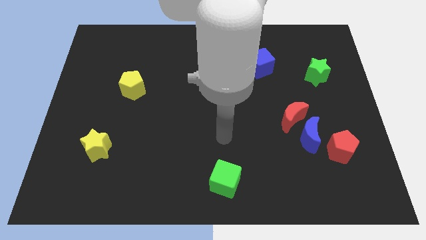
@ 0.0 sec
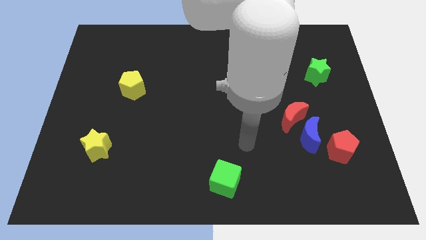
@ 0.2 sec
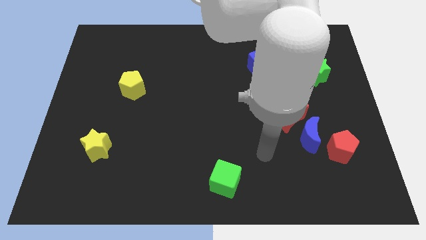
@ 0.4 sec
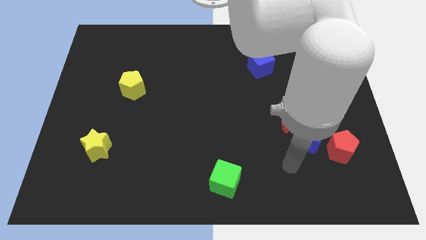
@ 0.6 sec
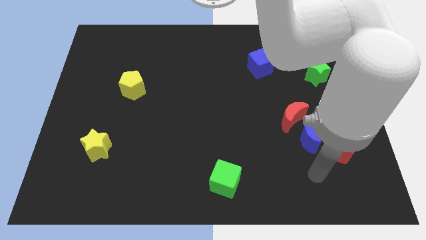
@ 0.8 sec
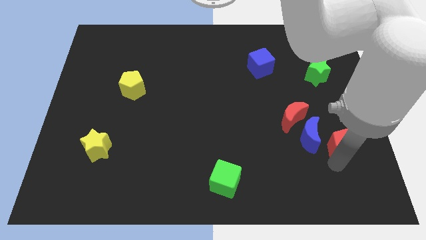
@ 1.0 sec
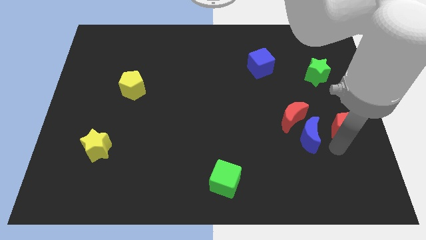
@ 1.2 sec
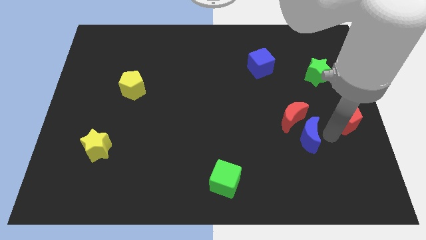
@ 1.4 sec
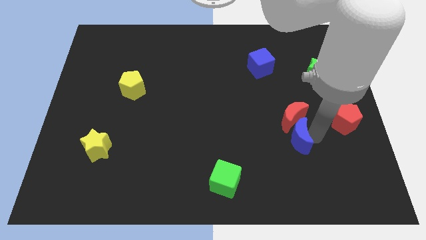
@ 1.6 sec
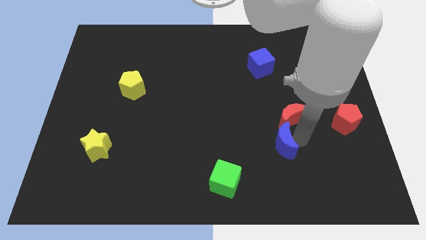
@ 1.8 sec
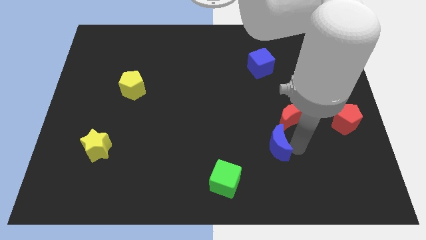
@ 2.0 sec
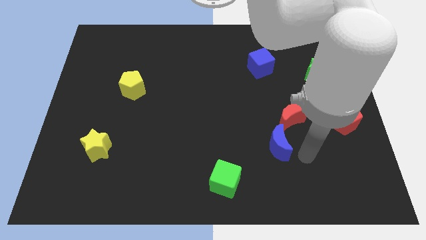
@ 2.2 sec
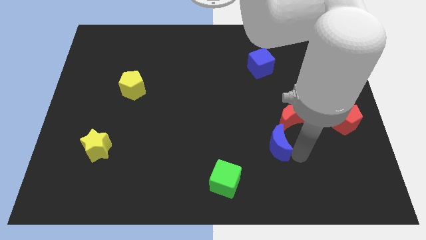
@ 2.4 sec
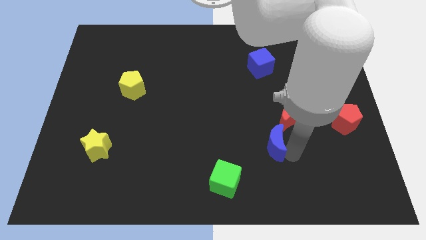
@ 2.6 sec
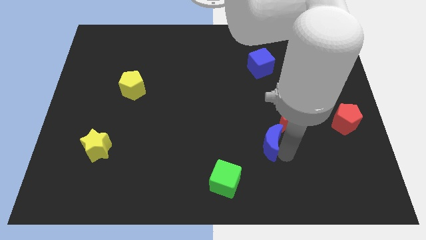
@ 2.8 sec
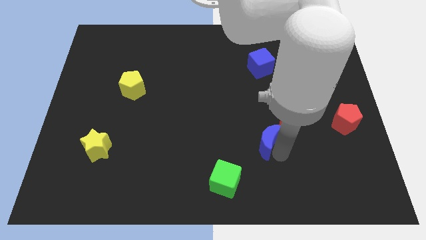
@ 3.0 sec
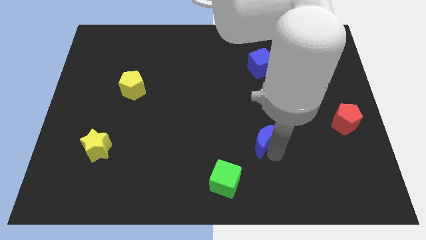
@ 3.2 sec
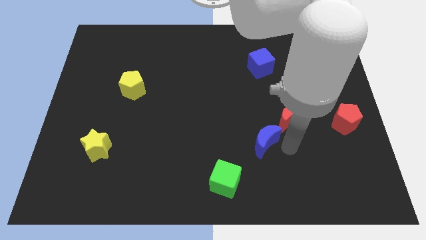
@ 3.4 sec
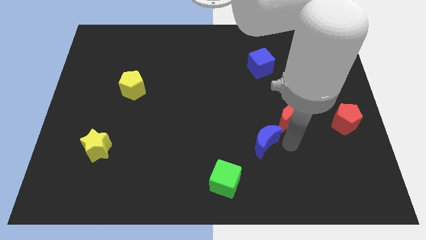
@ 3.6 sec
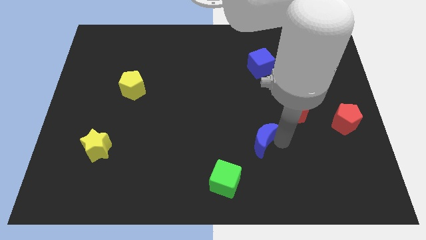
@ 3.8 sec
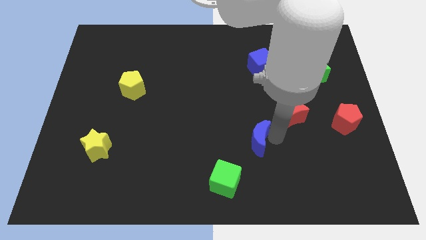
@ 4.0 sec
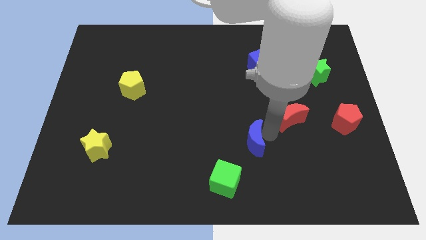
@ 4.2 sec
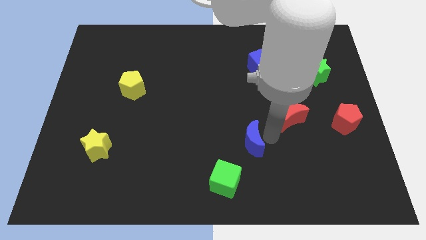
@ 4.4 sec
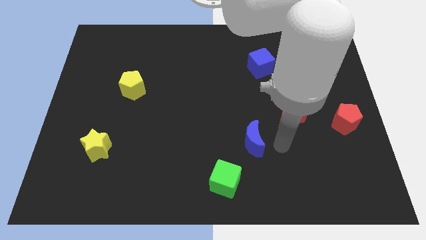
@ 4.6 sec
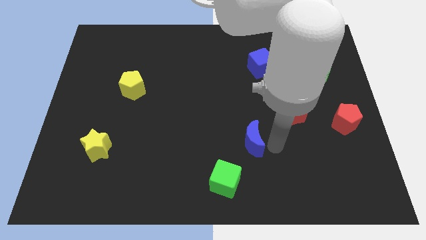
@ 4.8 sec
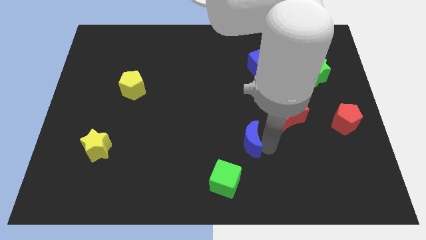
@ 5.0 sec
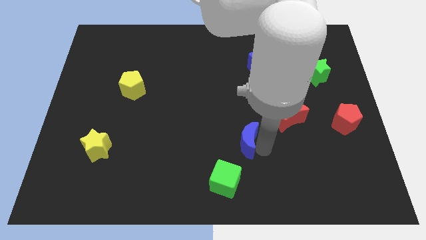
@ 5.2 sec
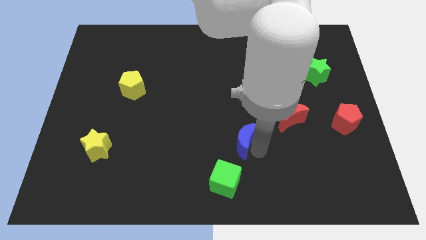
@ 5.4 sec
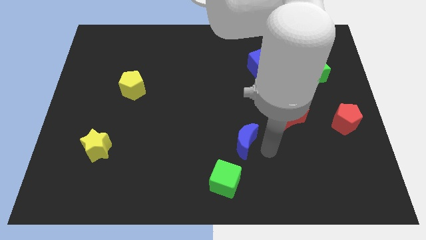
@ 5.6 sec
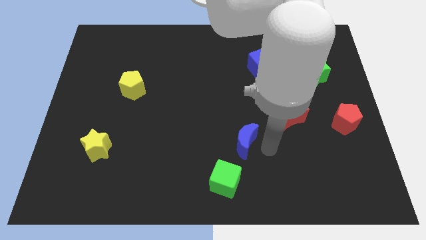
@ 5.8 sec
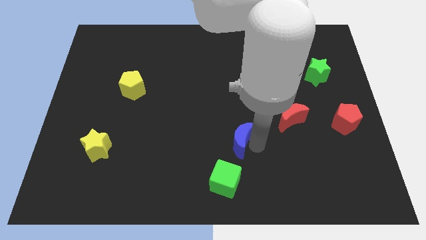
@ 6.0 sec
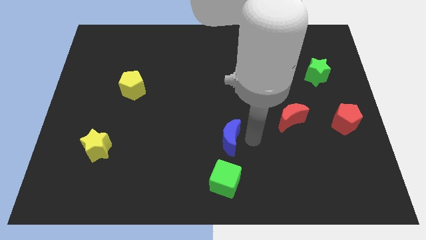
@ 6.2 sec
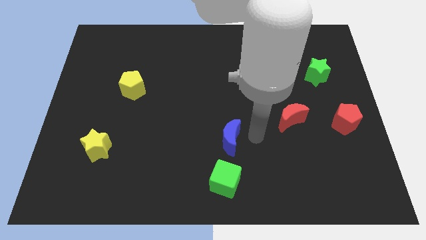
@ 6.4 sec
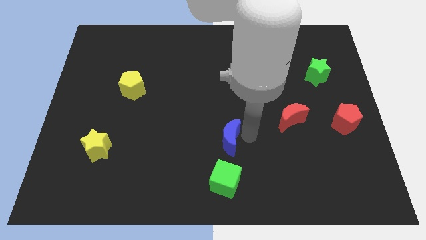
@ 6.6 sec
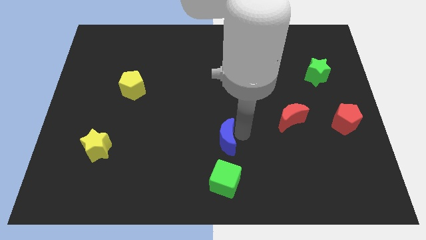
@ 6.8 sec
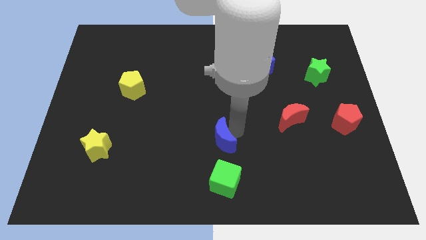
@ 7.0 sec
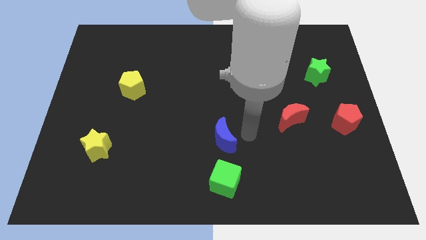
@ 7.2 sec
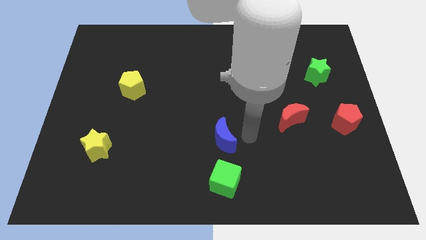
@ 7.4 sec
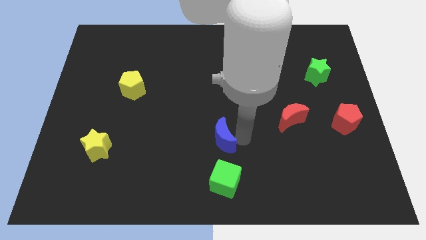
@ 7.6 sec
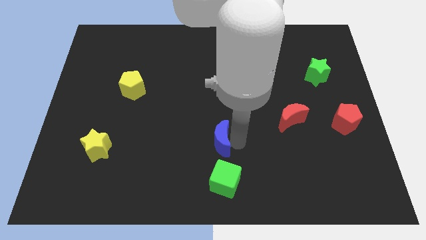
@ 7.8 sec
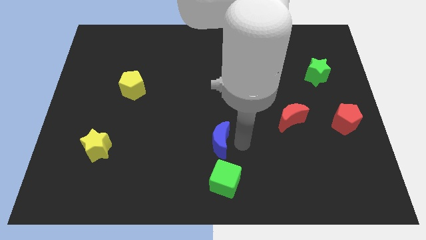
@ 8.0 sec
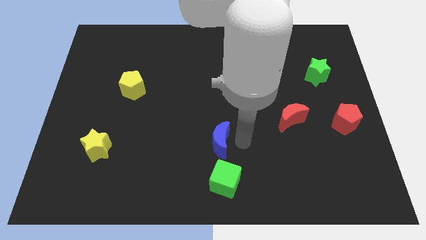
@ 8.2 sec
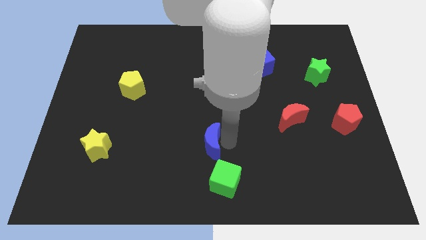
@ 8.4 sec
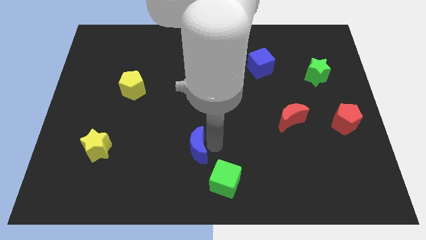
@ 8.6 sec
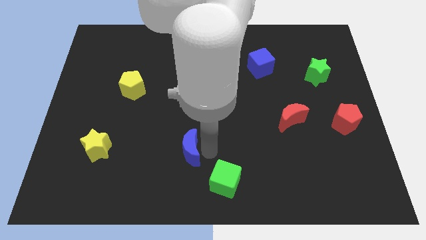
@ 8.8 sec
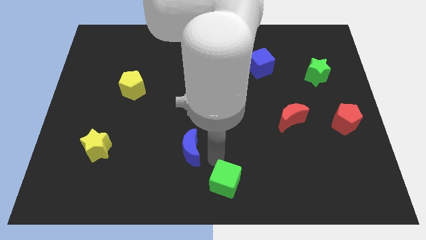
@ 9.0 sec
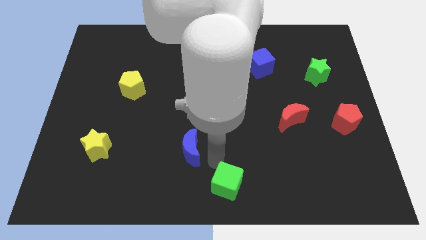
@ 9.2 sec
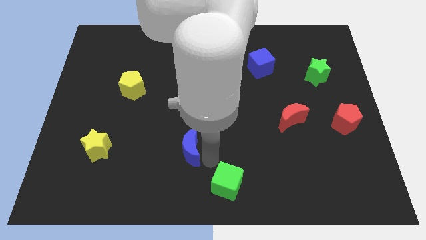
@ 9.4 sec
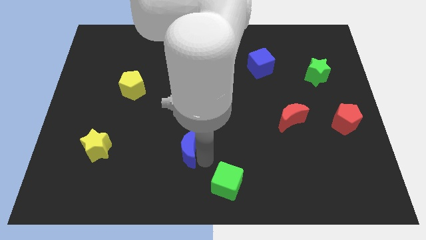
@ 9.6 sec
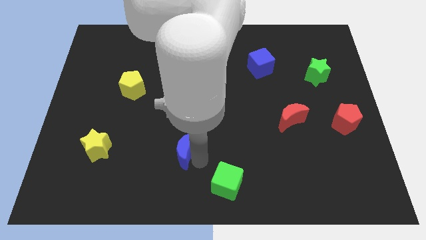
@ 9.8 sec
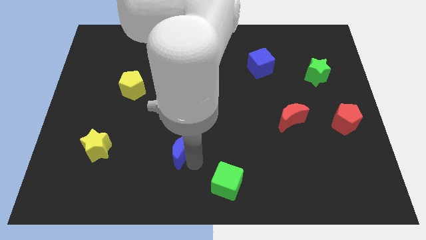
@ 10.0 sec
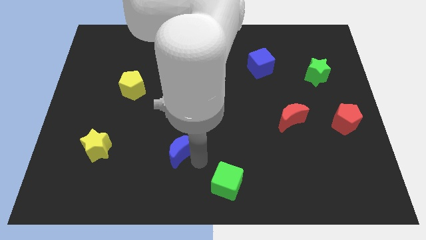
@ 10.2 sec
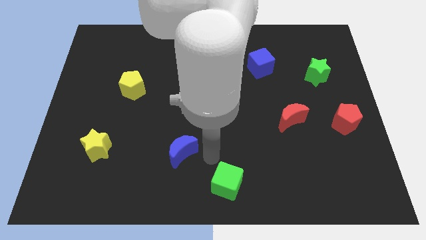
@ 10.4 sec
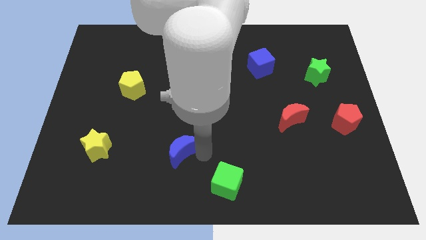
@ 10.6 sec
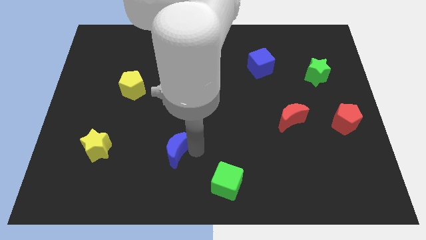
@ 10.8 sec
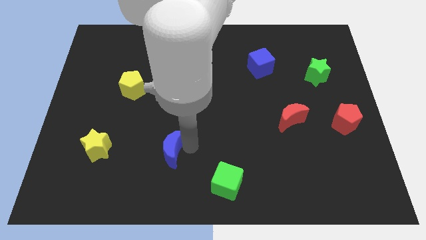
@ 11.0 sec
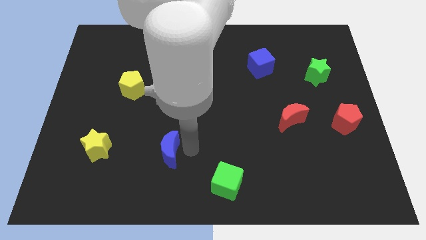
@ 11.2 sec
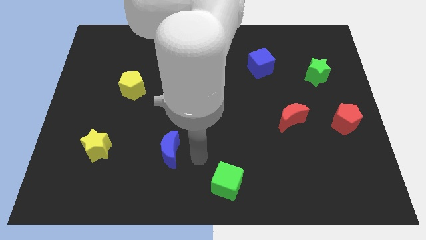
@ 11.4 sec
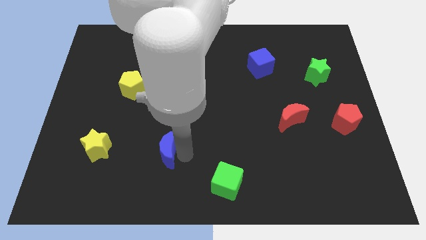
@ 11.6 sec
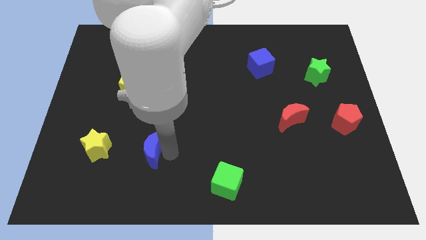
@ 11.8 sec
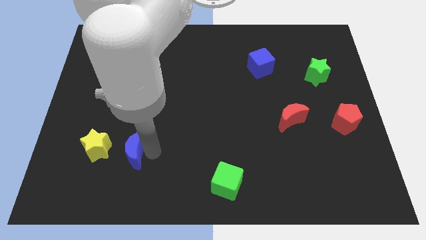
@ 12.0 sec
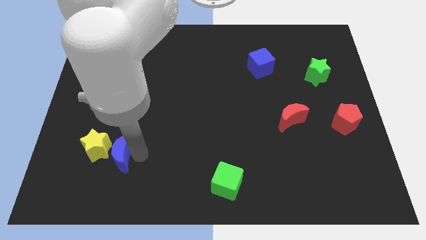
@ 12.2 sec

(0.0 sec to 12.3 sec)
push the blue moon towards the yellow star
